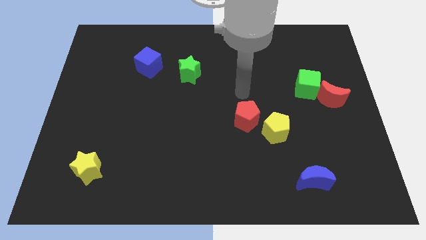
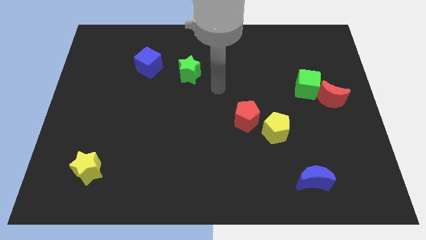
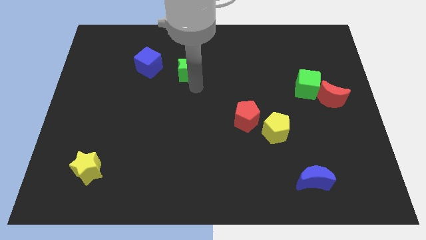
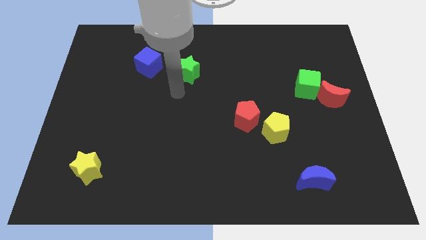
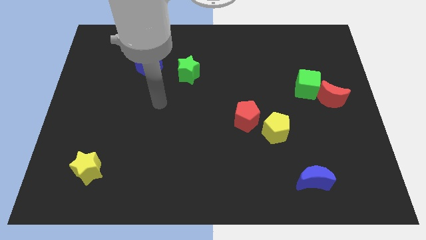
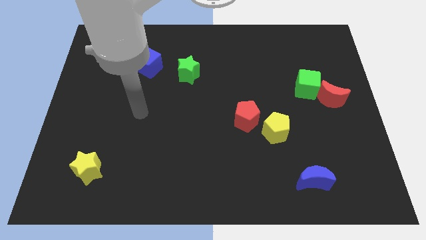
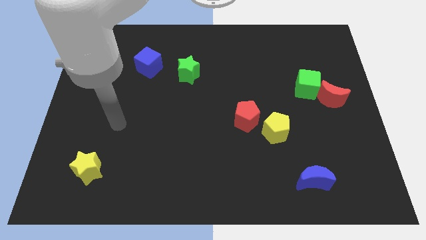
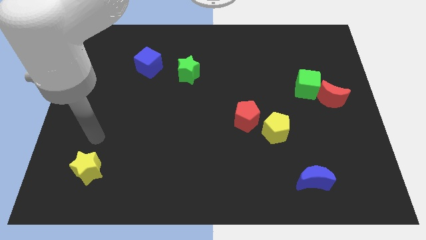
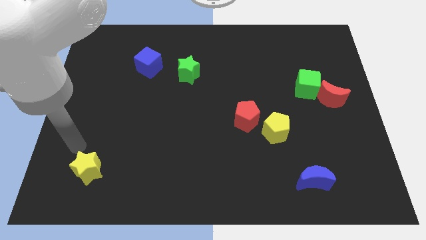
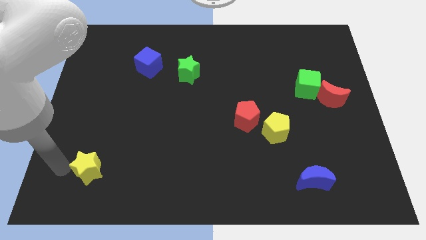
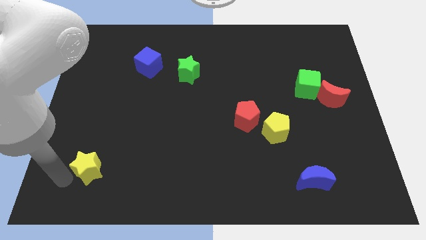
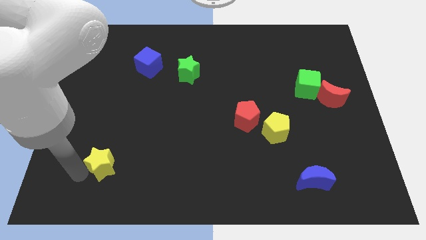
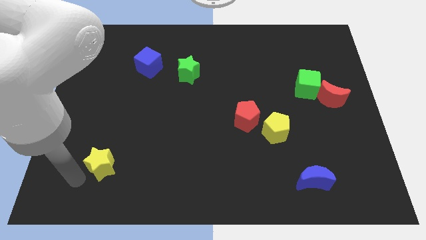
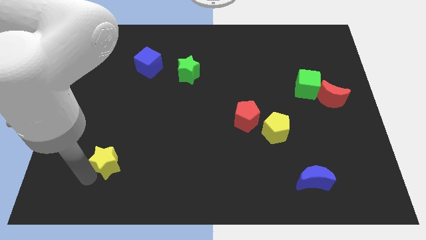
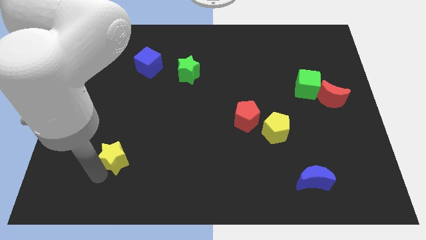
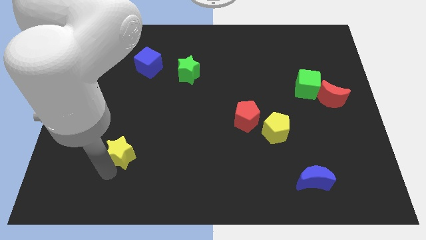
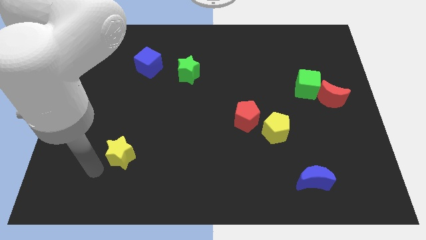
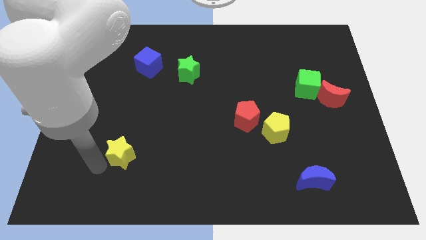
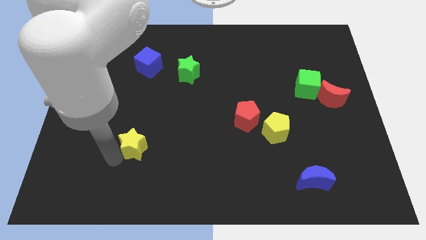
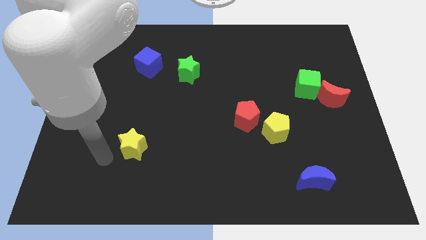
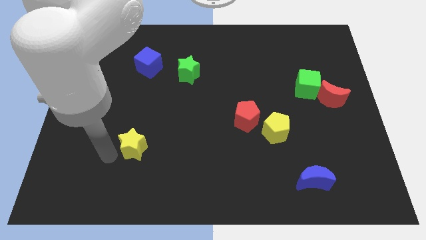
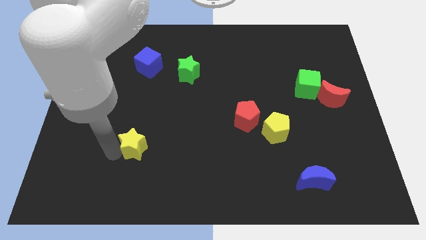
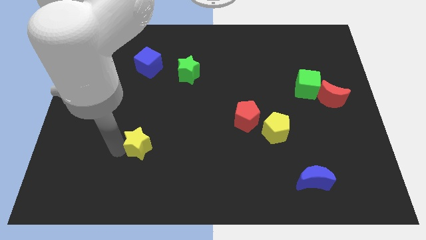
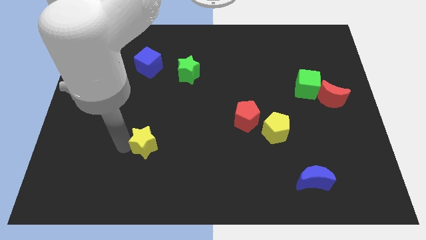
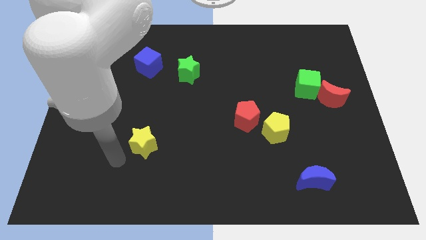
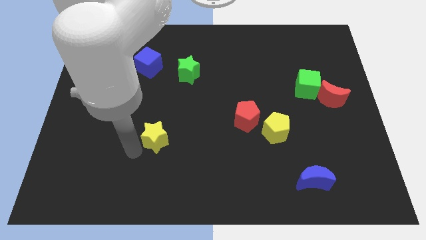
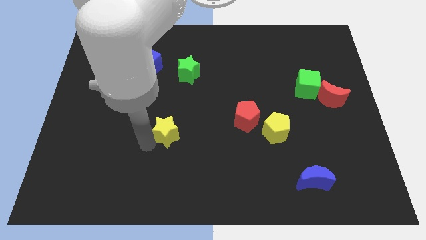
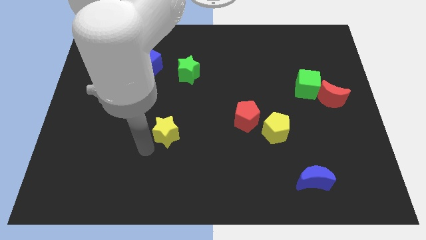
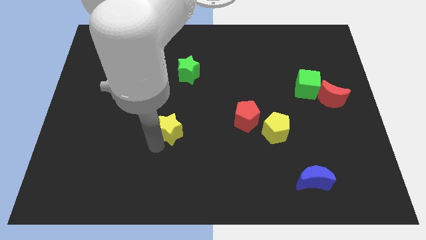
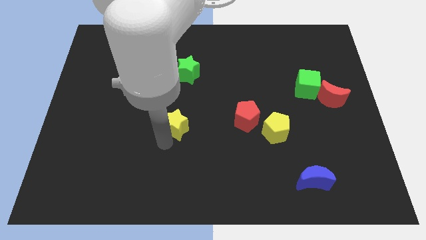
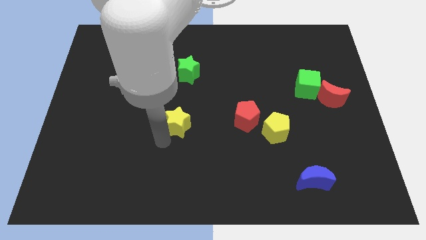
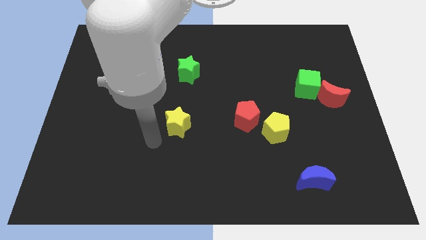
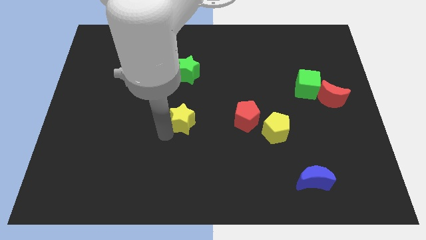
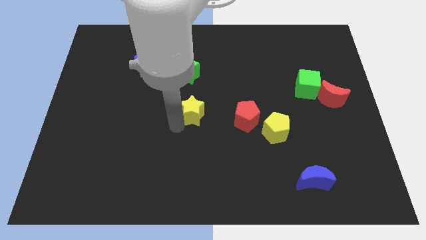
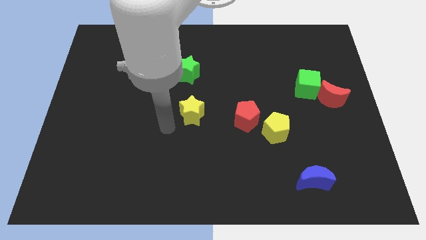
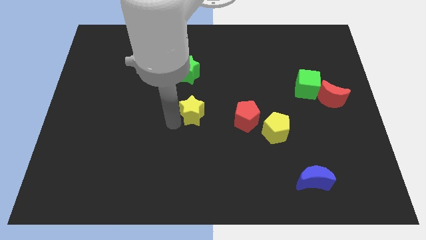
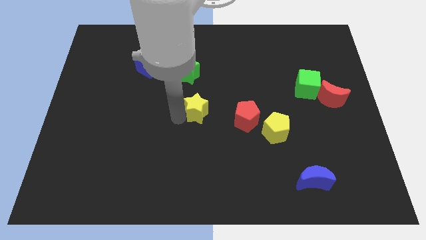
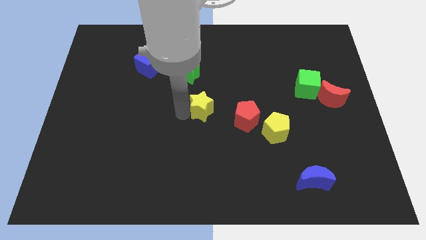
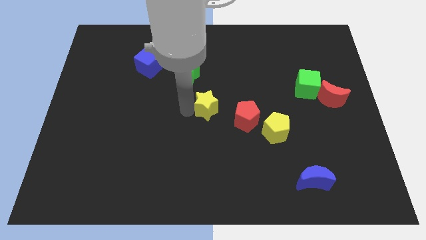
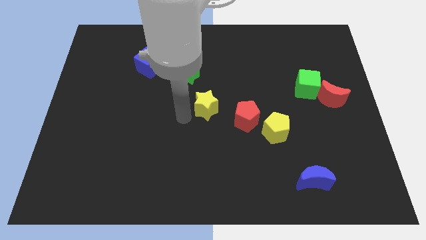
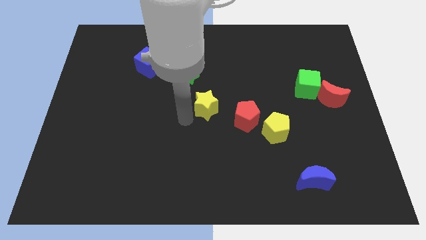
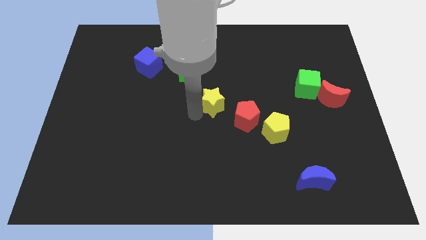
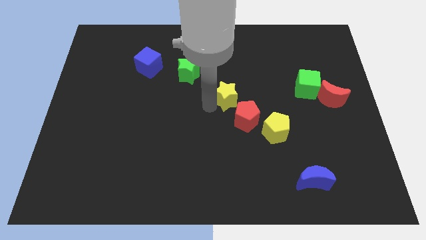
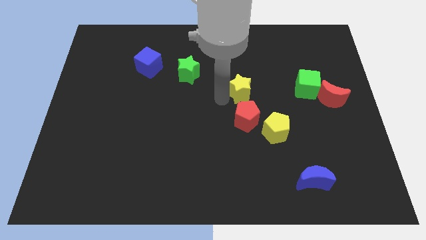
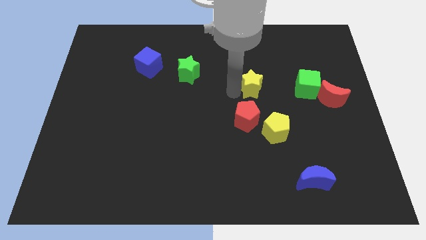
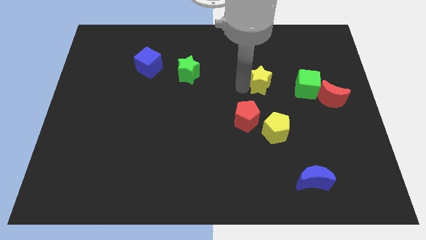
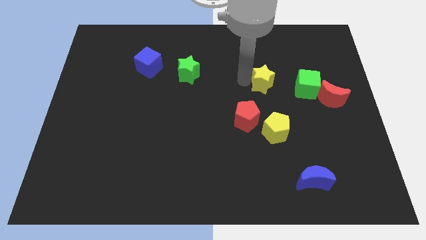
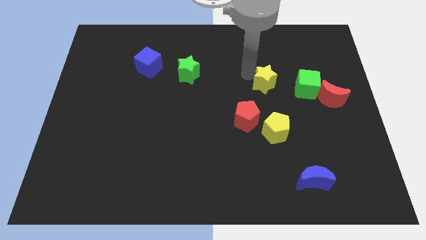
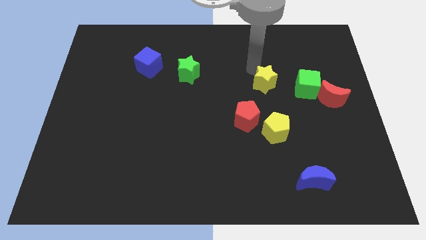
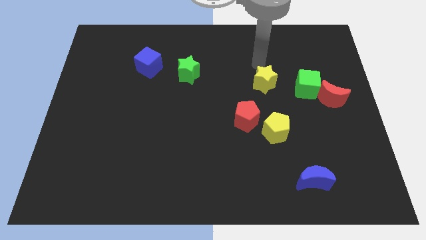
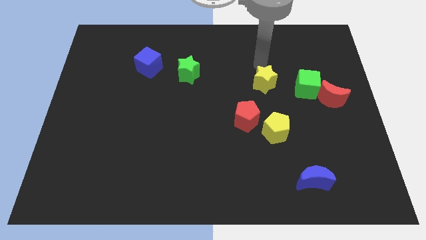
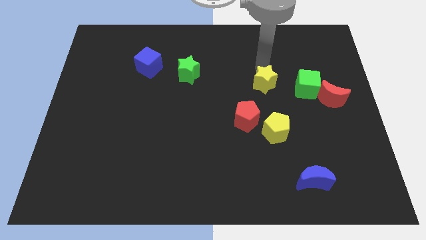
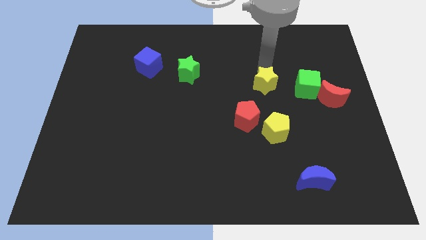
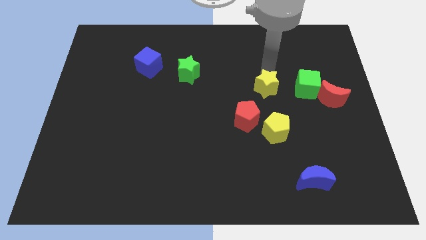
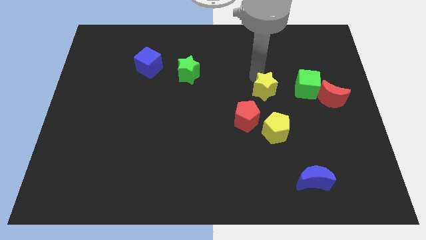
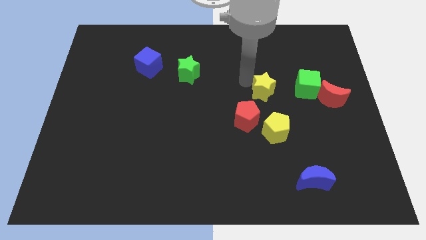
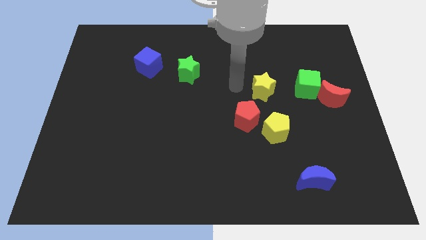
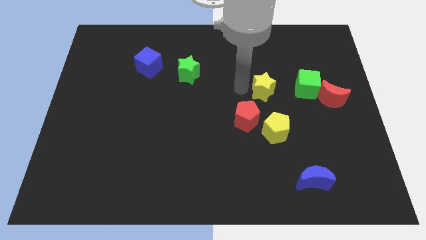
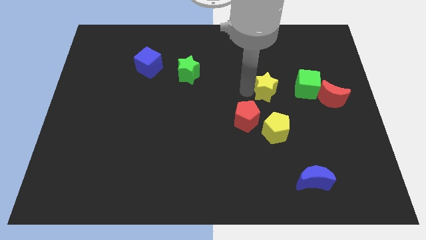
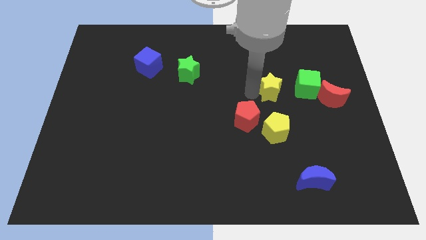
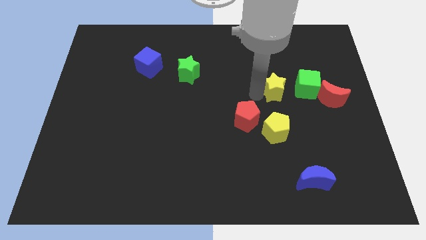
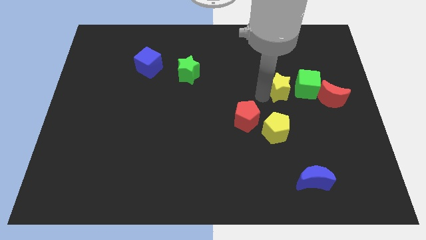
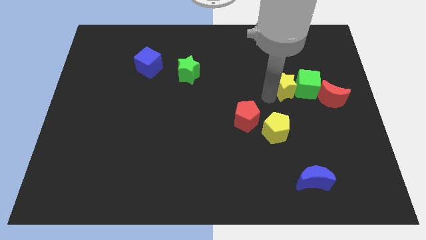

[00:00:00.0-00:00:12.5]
slide the yellow star towards the green cube

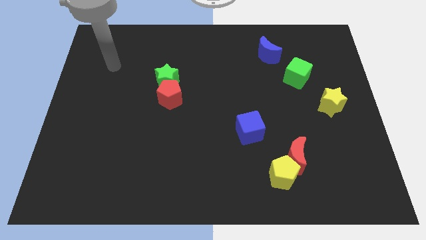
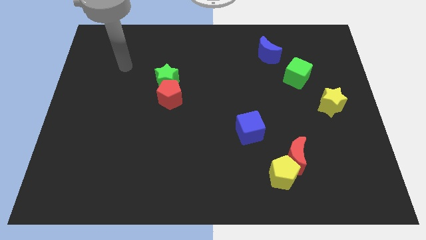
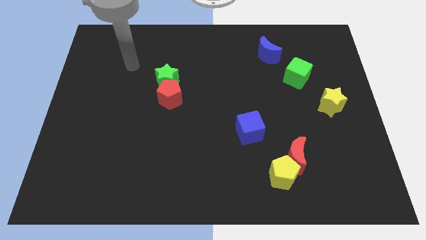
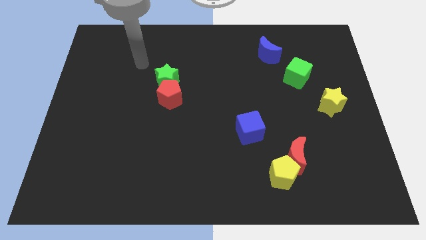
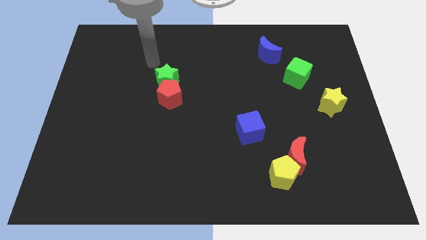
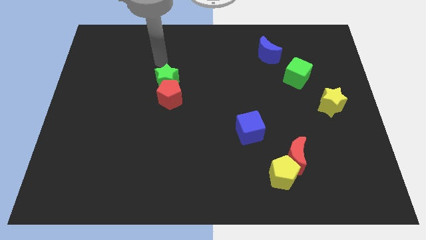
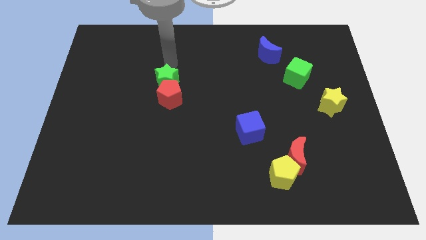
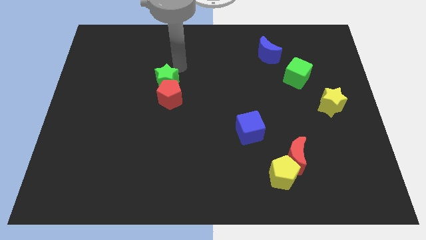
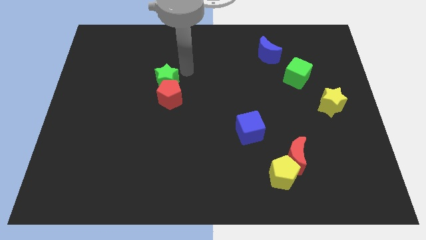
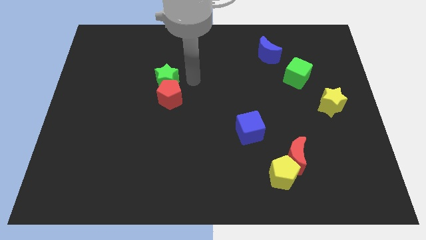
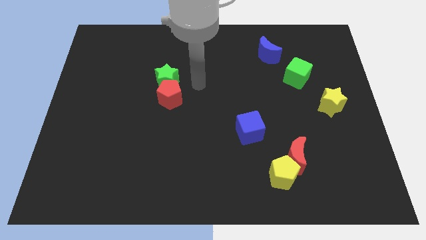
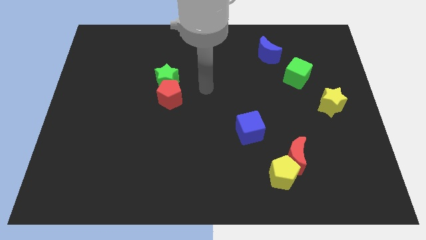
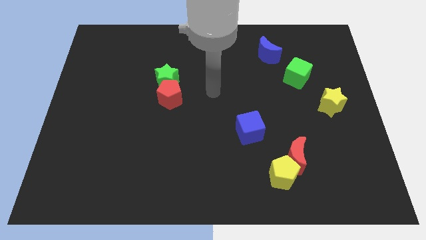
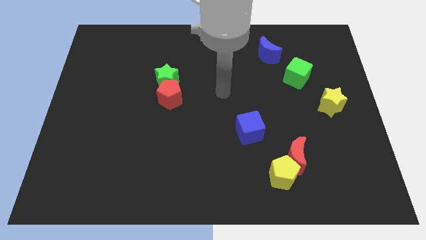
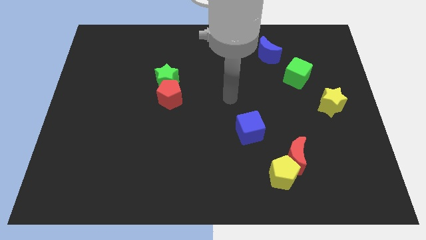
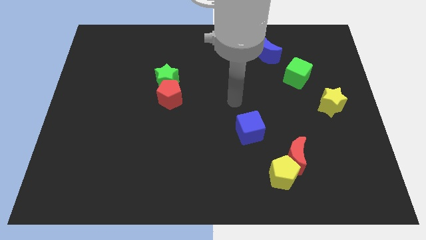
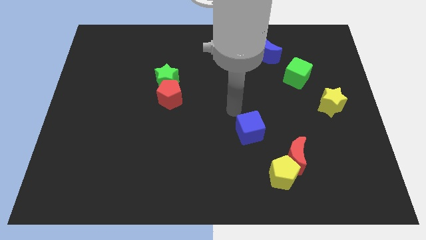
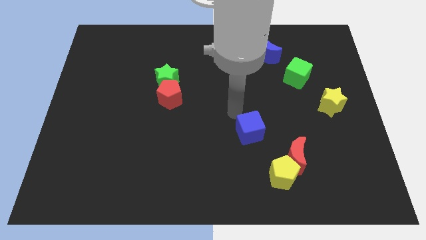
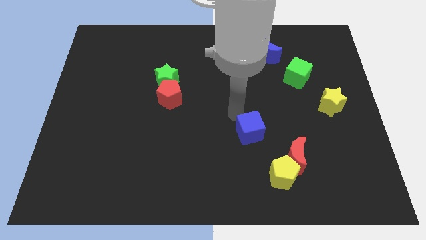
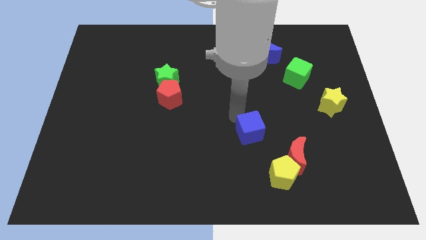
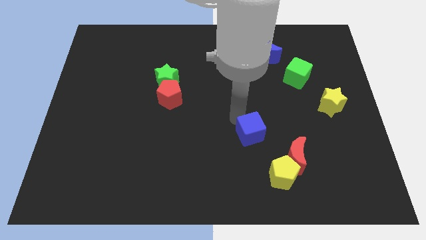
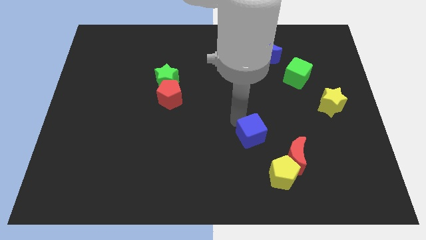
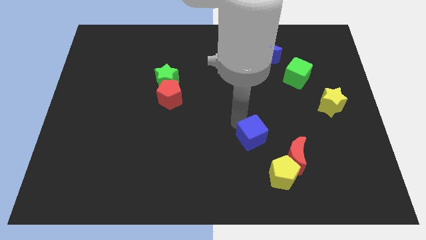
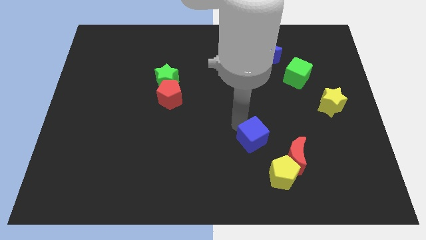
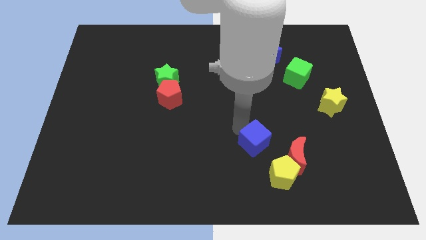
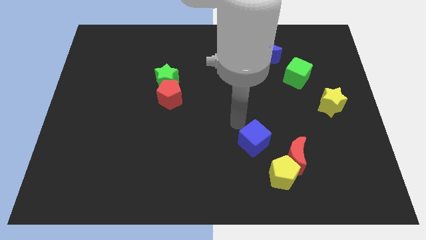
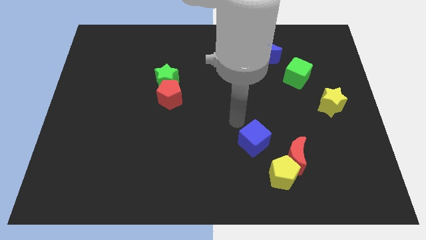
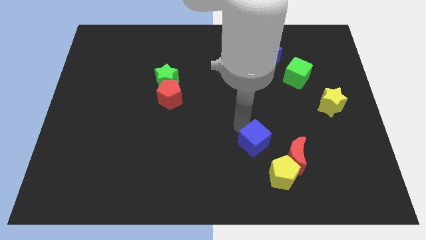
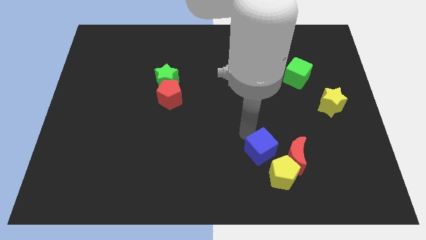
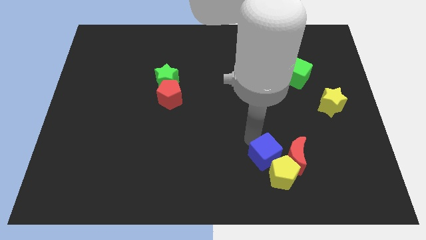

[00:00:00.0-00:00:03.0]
put the blue cube next to the yellow pentagon
